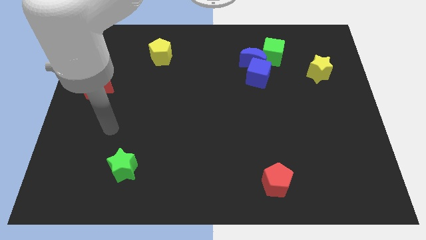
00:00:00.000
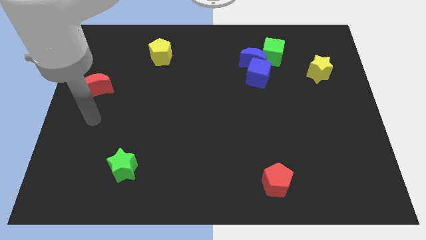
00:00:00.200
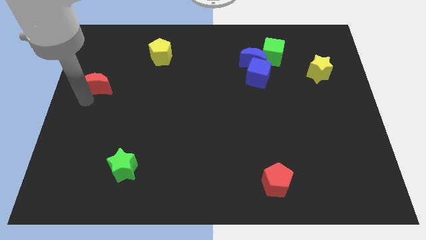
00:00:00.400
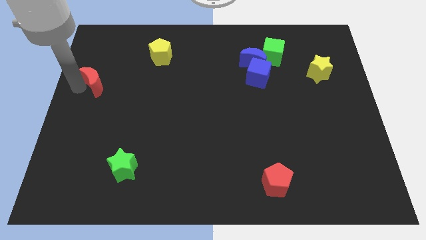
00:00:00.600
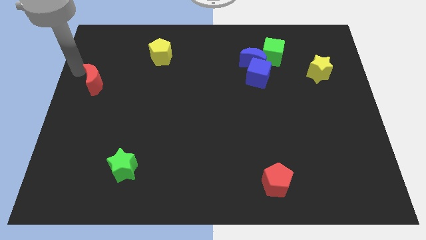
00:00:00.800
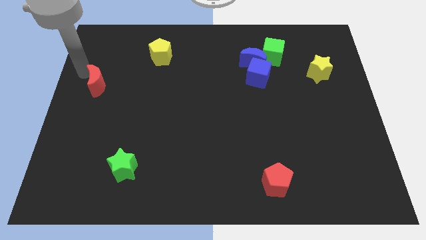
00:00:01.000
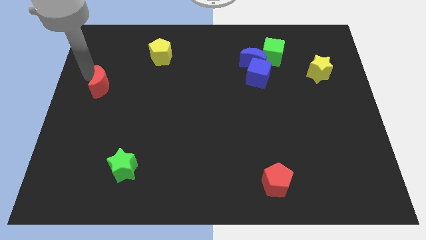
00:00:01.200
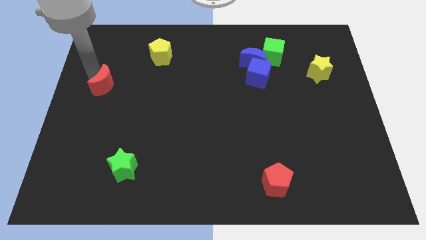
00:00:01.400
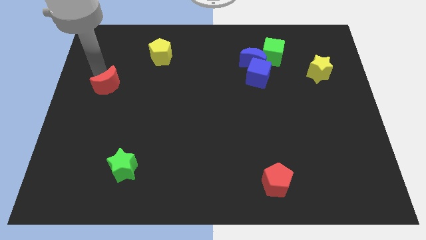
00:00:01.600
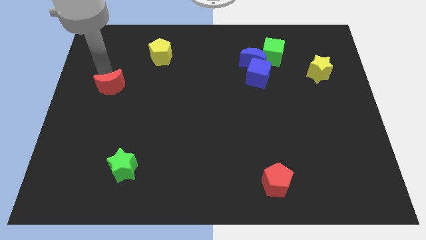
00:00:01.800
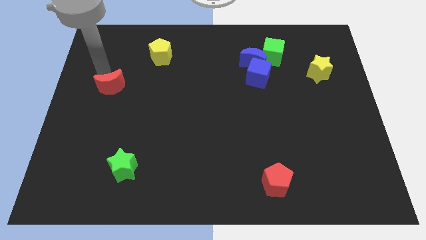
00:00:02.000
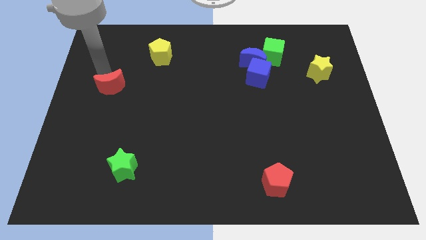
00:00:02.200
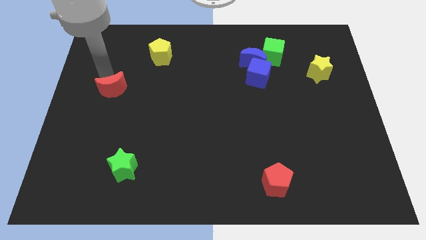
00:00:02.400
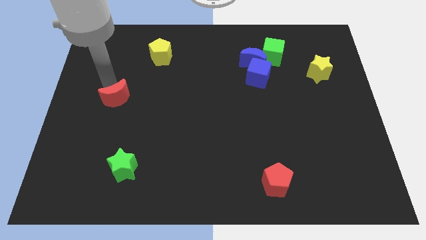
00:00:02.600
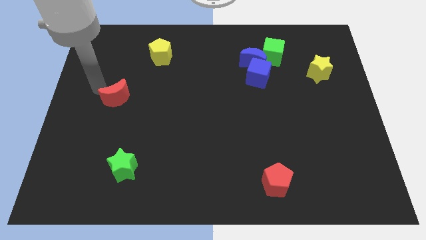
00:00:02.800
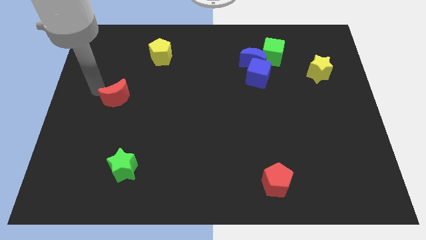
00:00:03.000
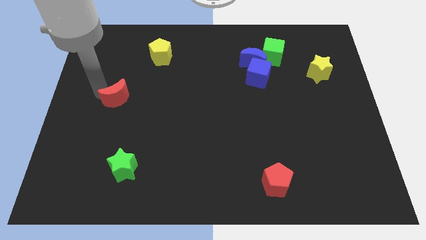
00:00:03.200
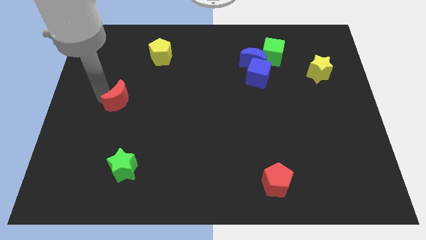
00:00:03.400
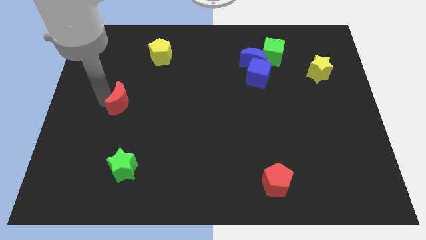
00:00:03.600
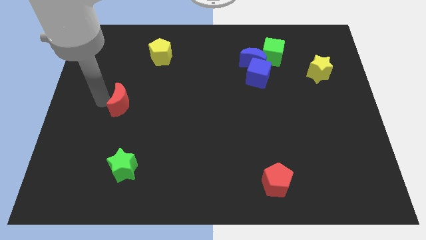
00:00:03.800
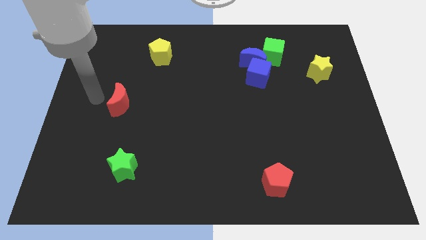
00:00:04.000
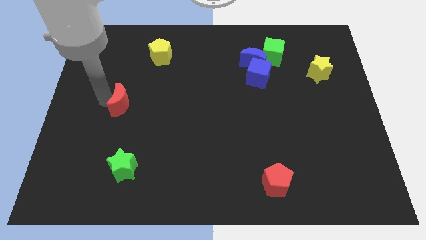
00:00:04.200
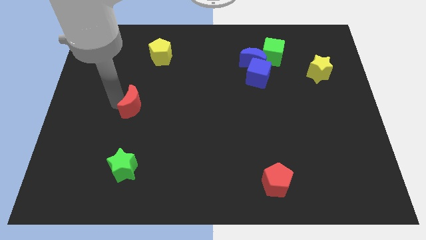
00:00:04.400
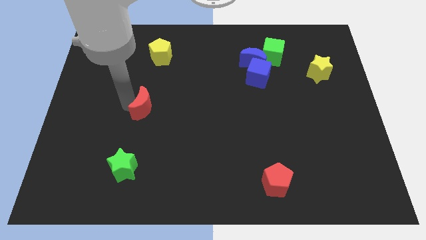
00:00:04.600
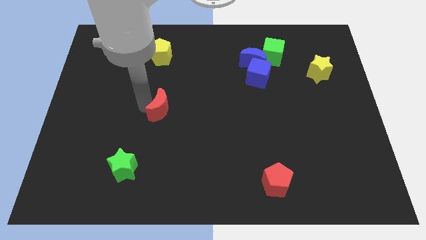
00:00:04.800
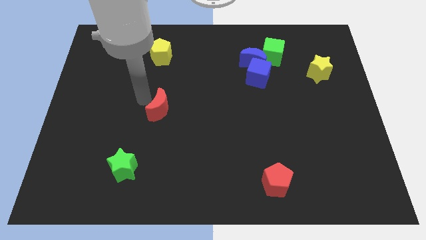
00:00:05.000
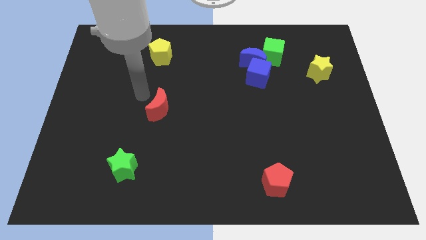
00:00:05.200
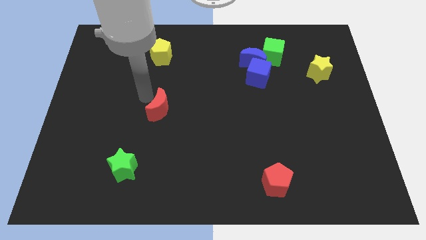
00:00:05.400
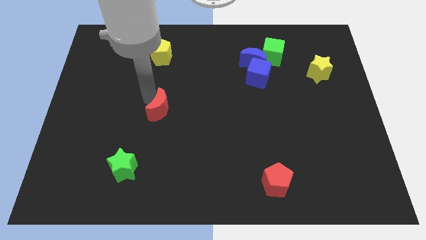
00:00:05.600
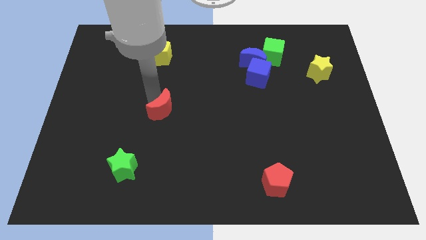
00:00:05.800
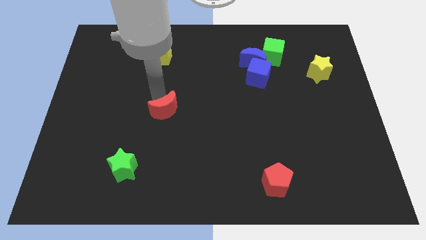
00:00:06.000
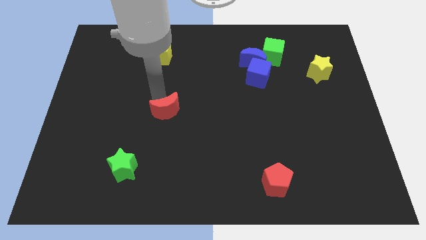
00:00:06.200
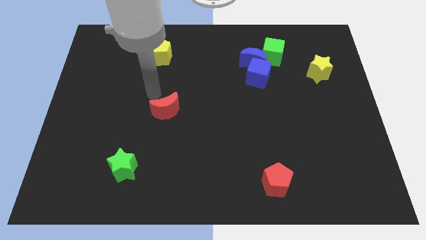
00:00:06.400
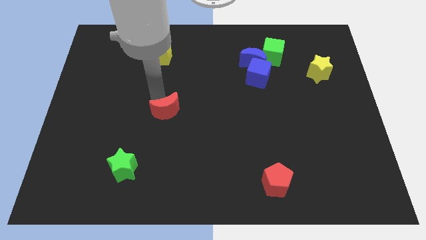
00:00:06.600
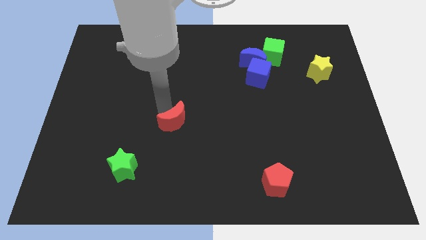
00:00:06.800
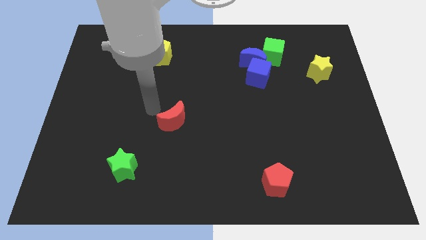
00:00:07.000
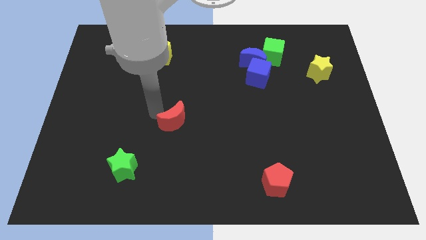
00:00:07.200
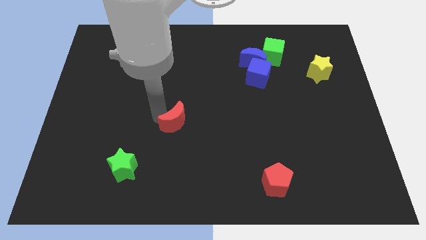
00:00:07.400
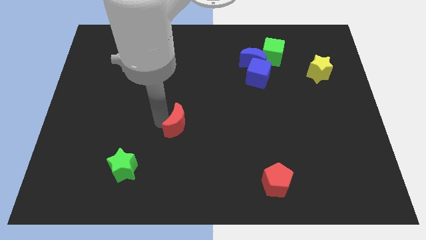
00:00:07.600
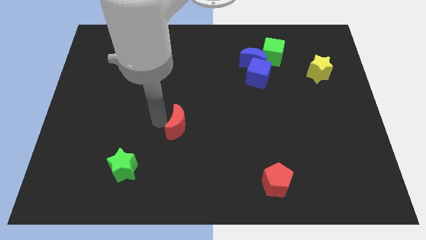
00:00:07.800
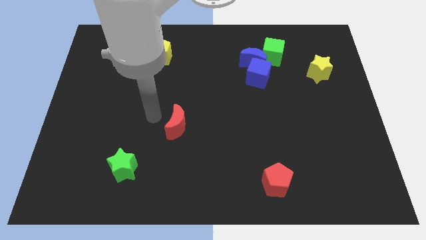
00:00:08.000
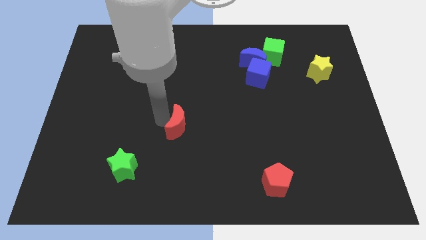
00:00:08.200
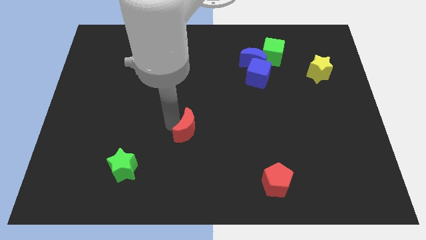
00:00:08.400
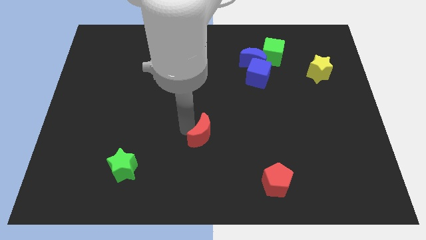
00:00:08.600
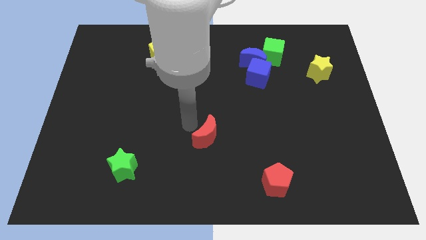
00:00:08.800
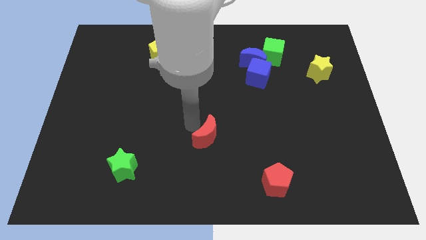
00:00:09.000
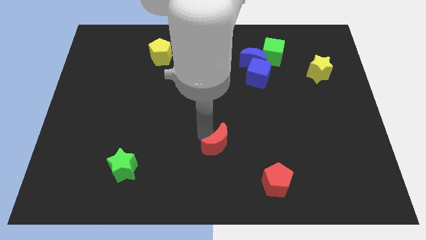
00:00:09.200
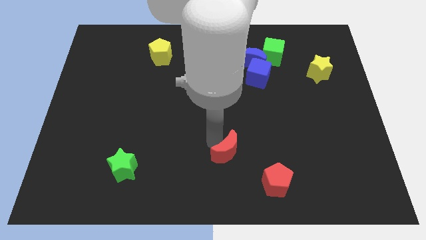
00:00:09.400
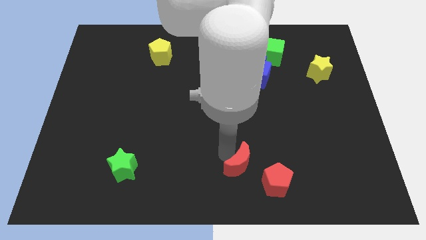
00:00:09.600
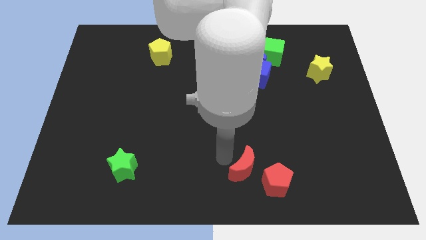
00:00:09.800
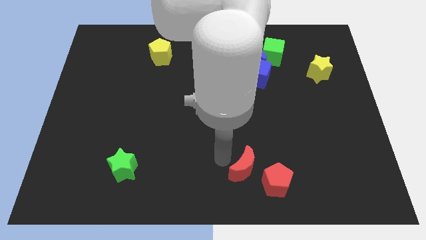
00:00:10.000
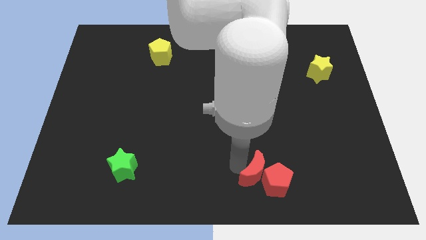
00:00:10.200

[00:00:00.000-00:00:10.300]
put the red moon to the red pentagon

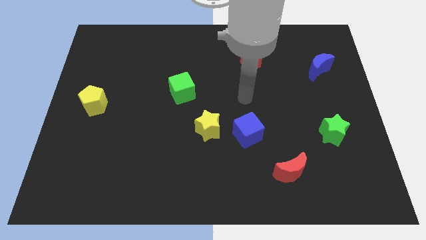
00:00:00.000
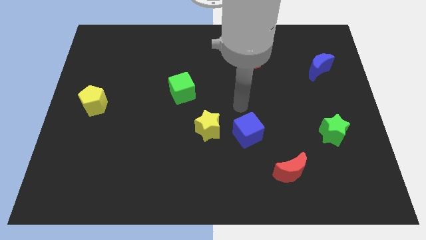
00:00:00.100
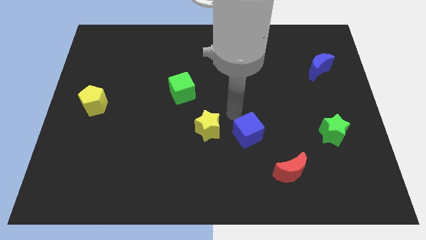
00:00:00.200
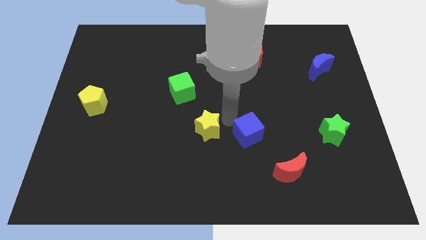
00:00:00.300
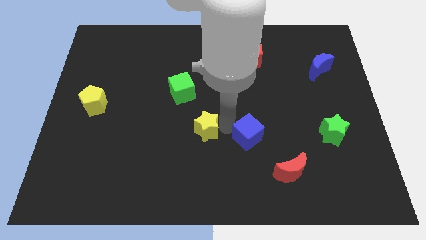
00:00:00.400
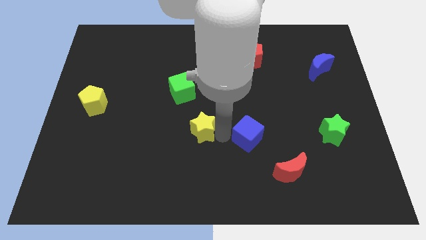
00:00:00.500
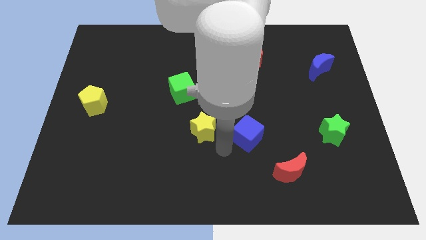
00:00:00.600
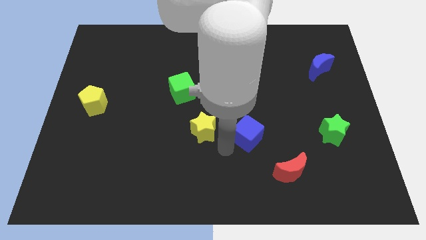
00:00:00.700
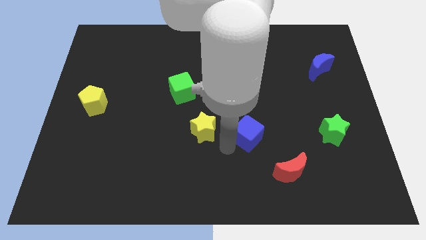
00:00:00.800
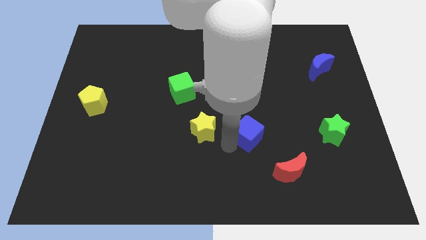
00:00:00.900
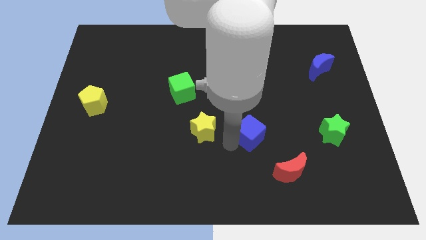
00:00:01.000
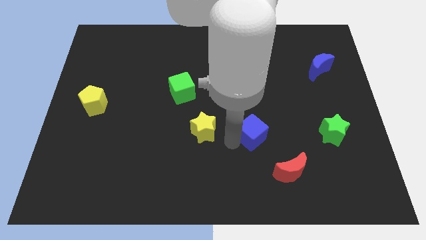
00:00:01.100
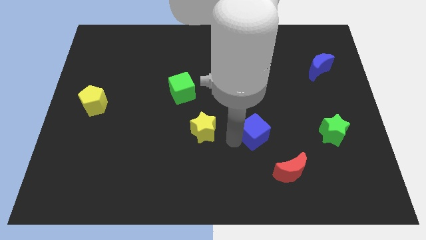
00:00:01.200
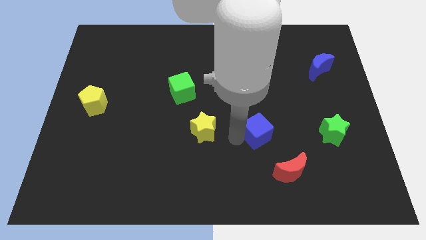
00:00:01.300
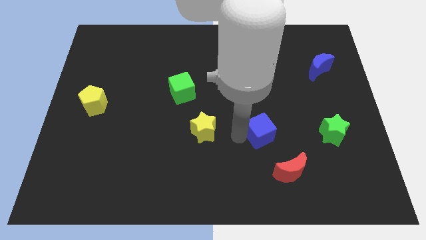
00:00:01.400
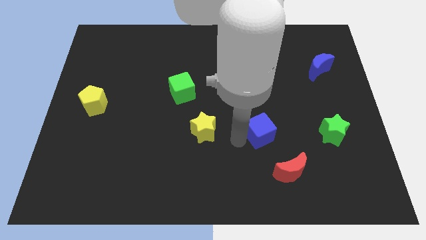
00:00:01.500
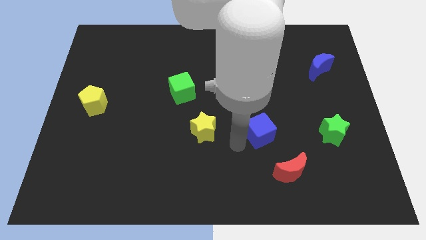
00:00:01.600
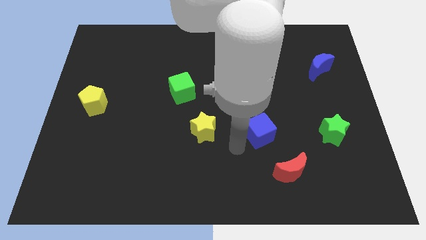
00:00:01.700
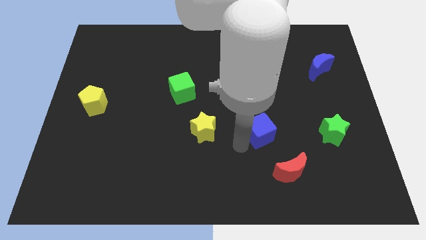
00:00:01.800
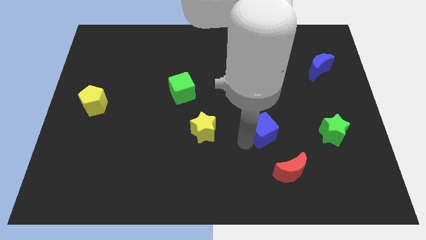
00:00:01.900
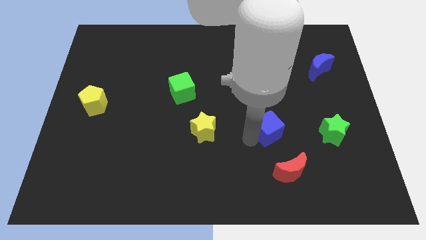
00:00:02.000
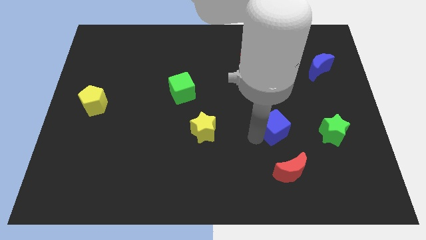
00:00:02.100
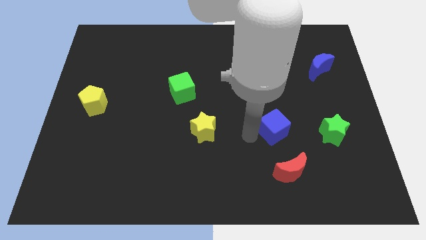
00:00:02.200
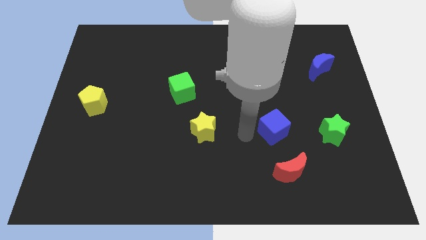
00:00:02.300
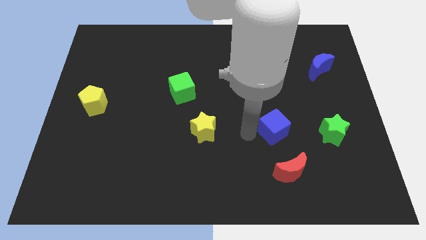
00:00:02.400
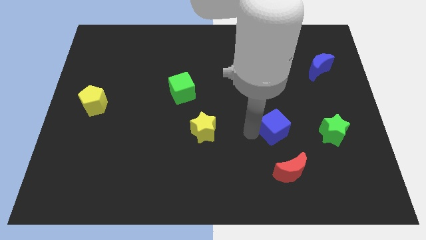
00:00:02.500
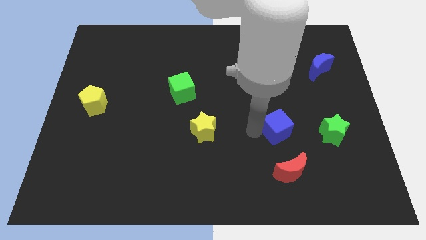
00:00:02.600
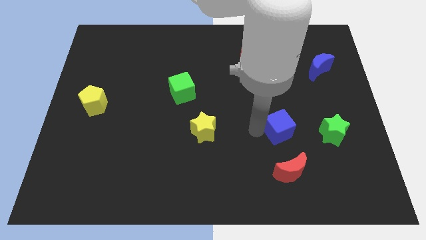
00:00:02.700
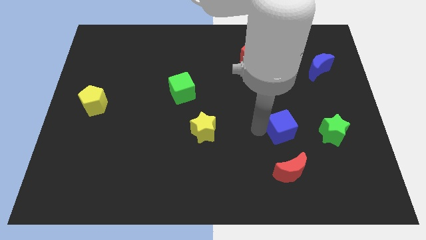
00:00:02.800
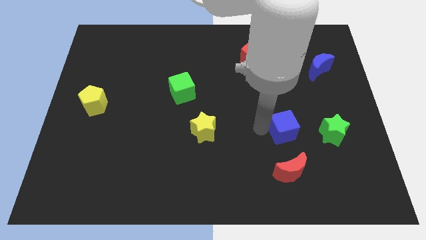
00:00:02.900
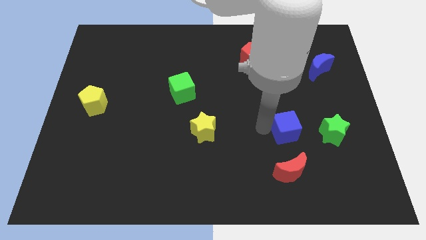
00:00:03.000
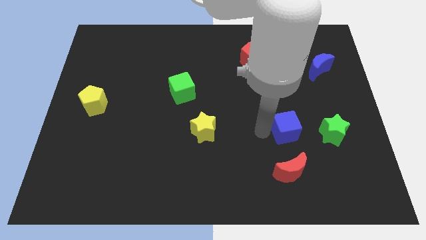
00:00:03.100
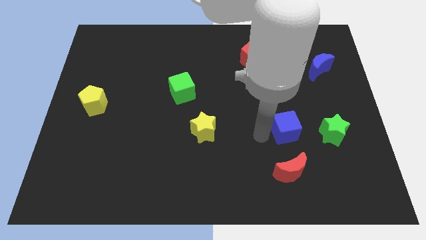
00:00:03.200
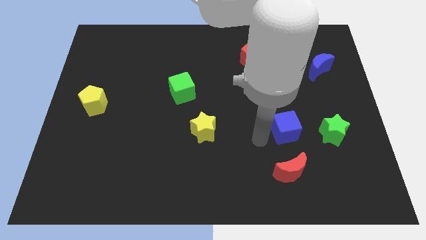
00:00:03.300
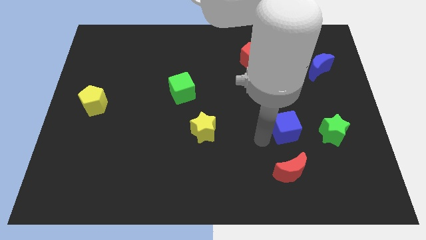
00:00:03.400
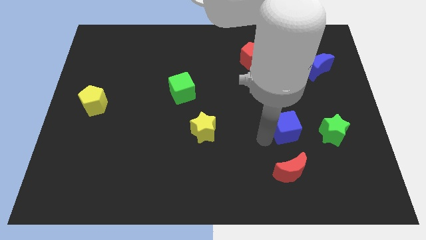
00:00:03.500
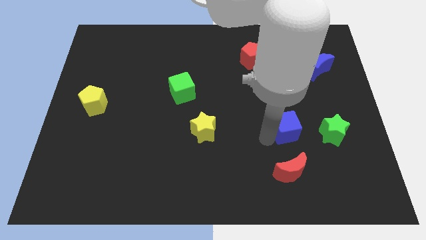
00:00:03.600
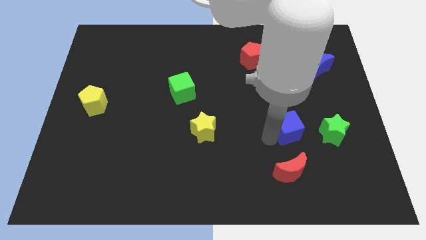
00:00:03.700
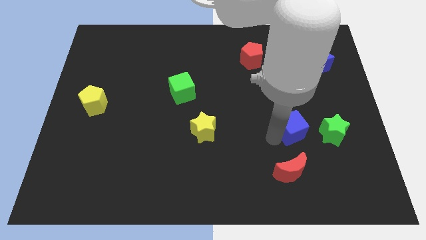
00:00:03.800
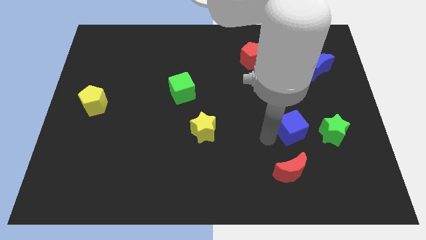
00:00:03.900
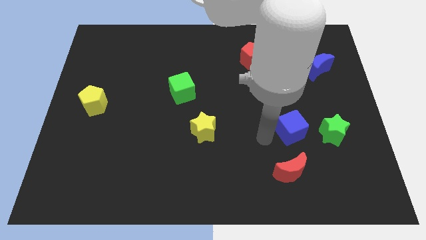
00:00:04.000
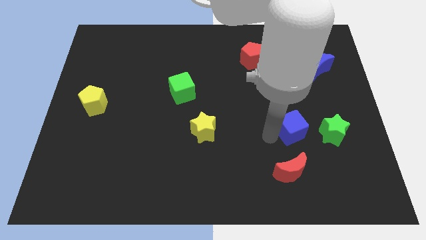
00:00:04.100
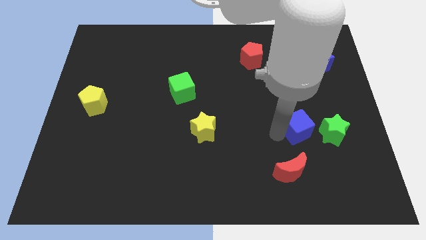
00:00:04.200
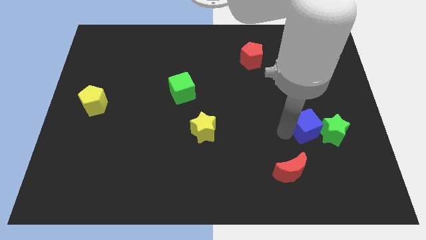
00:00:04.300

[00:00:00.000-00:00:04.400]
put the blue cube to the green star
